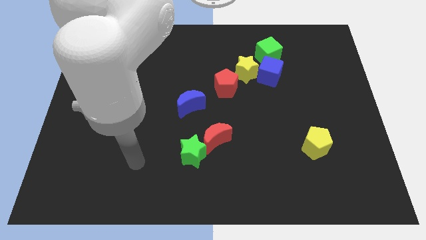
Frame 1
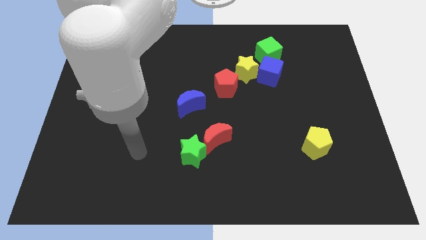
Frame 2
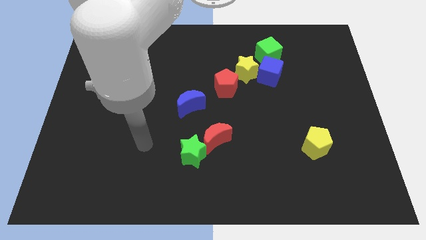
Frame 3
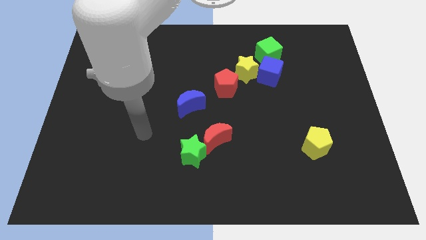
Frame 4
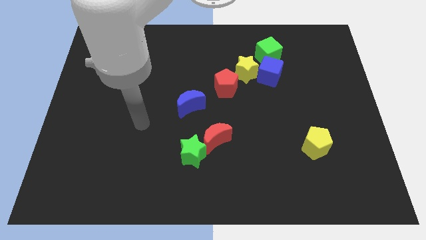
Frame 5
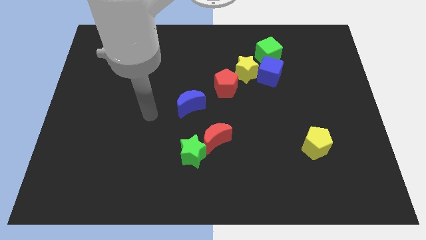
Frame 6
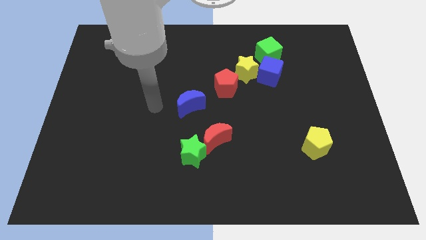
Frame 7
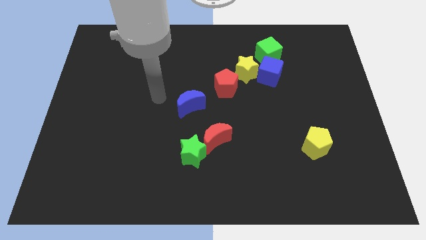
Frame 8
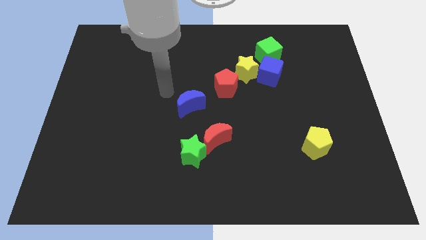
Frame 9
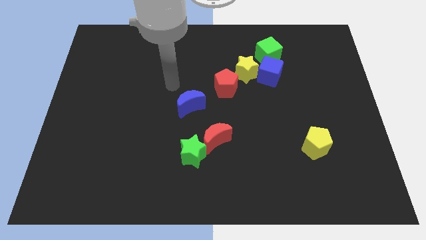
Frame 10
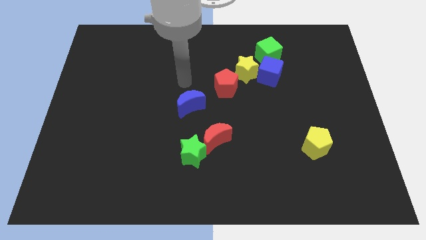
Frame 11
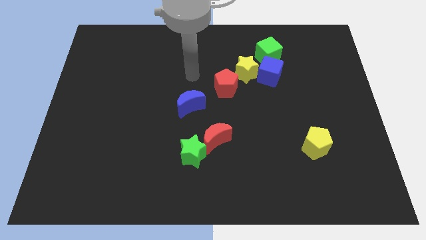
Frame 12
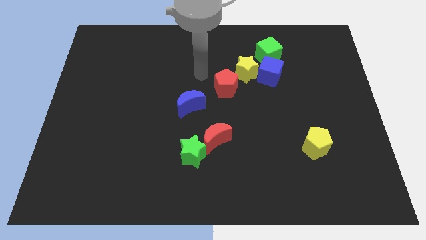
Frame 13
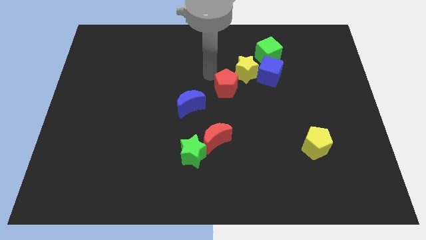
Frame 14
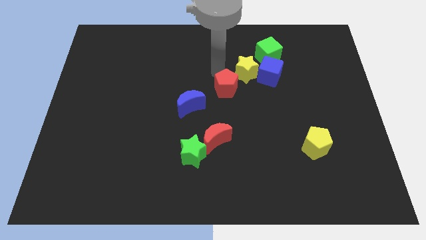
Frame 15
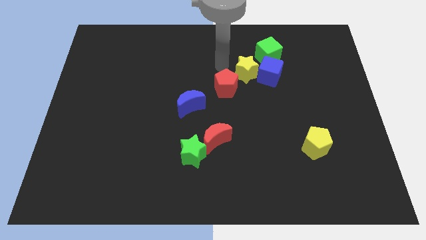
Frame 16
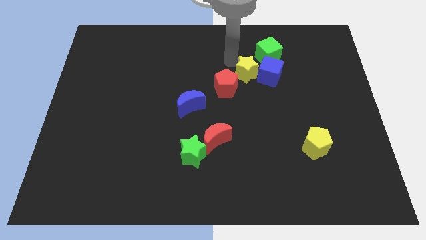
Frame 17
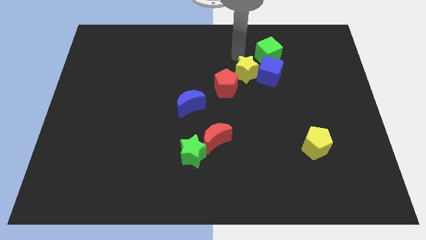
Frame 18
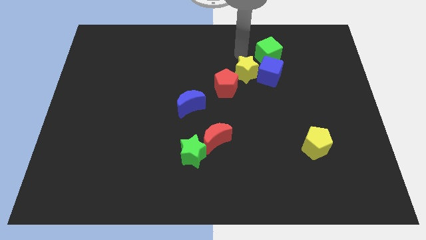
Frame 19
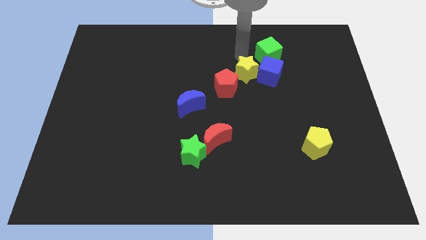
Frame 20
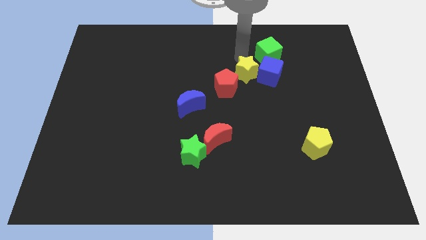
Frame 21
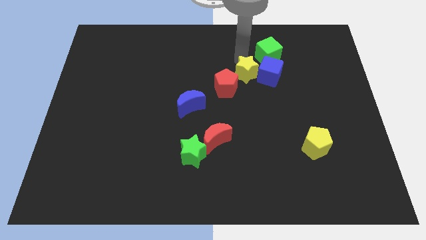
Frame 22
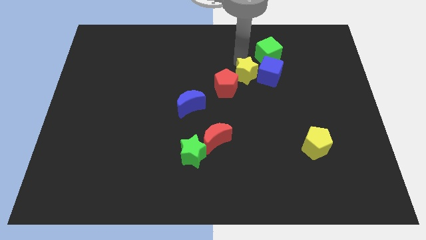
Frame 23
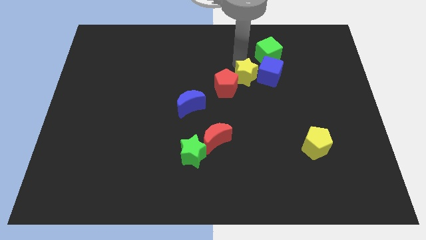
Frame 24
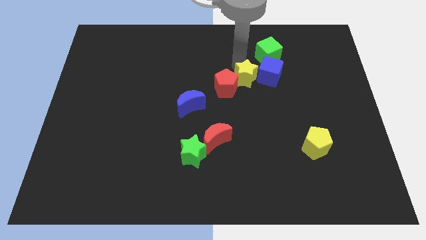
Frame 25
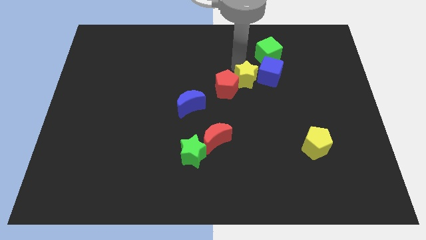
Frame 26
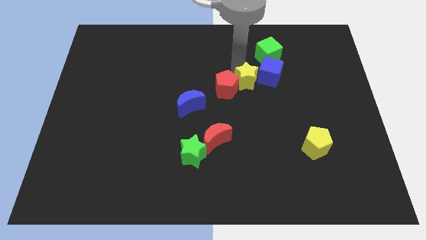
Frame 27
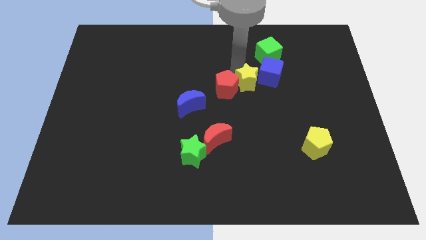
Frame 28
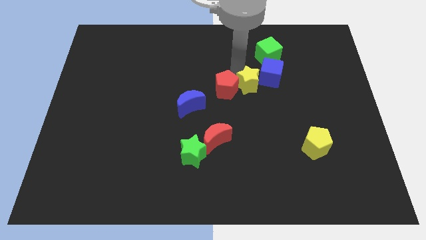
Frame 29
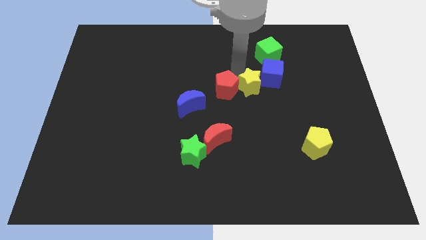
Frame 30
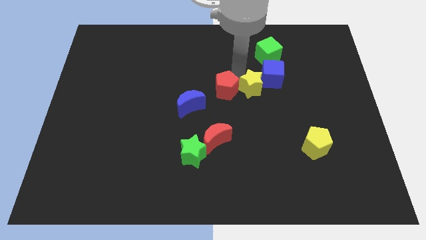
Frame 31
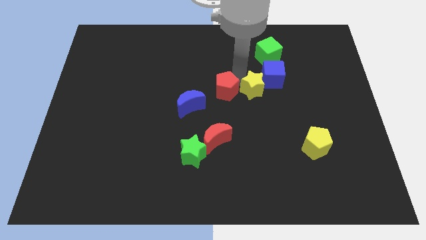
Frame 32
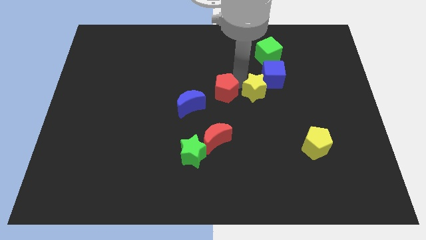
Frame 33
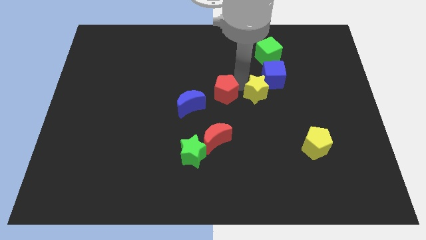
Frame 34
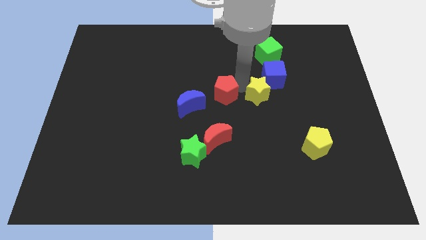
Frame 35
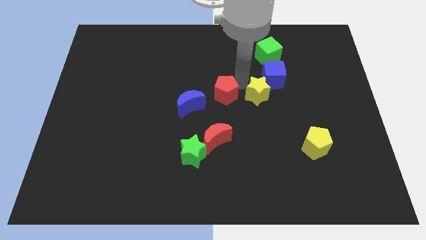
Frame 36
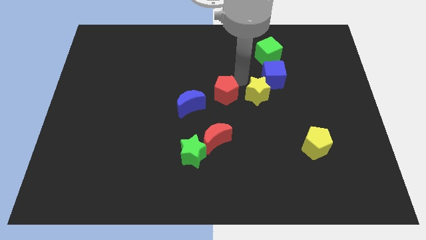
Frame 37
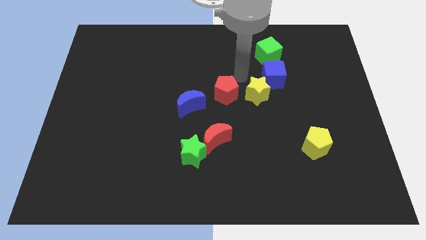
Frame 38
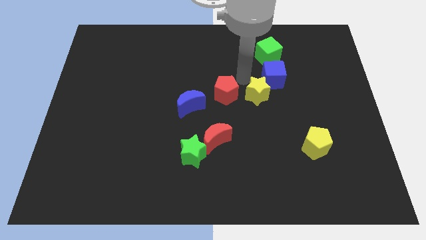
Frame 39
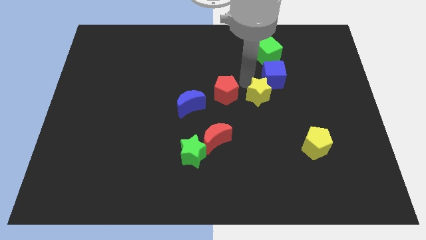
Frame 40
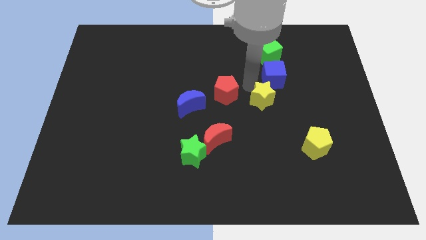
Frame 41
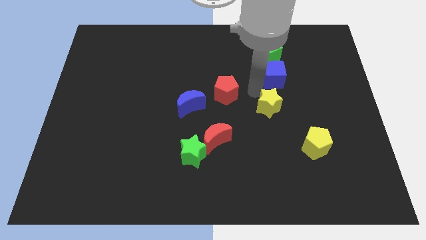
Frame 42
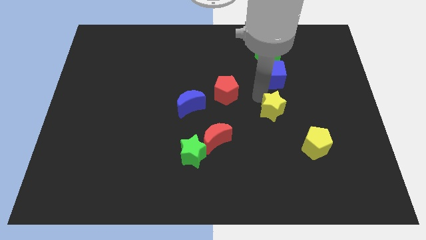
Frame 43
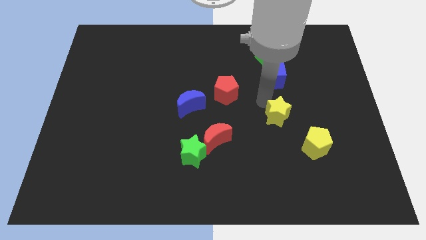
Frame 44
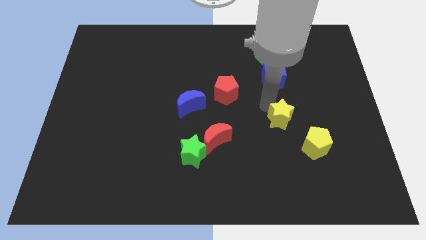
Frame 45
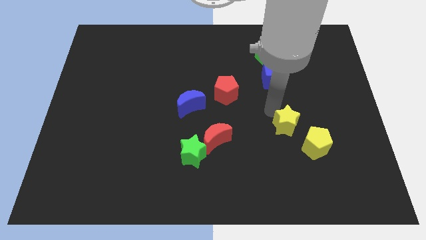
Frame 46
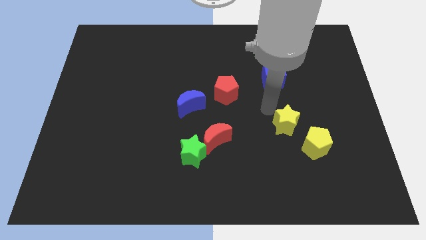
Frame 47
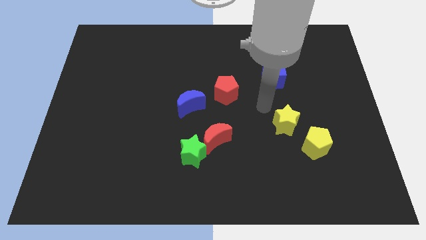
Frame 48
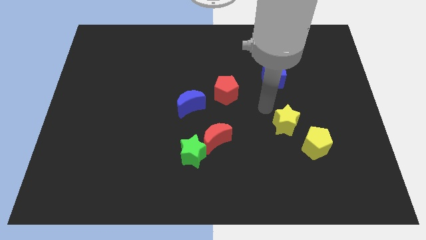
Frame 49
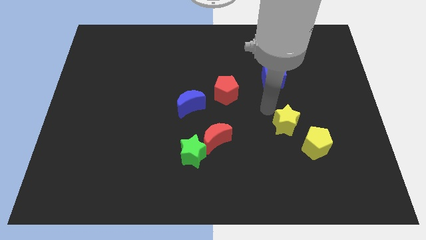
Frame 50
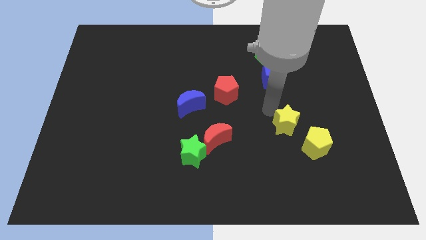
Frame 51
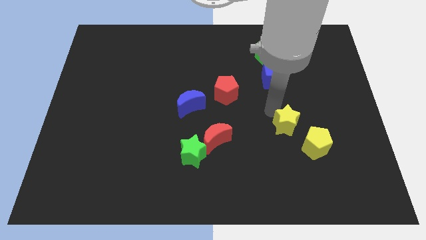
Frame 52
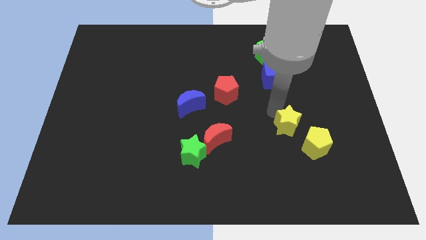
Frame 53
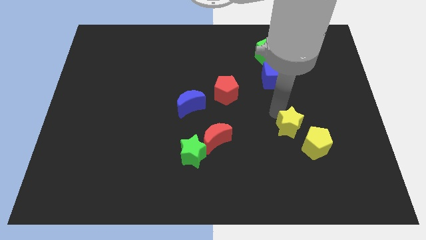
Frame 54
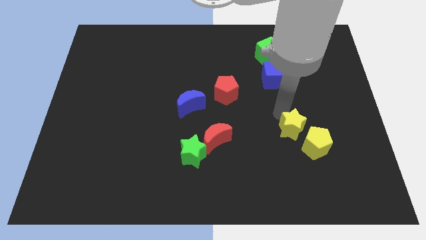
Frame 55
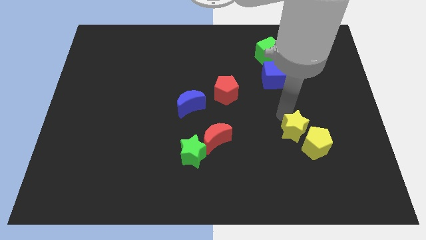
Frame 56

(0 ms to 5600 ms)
slide the yellow star to the yellow pentagon

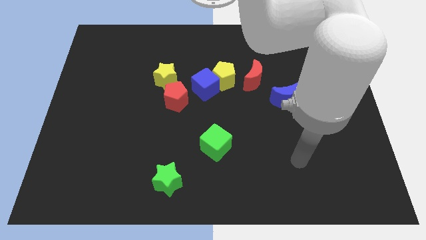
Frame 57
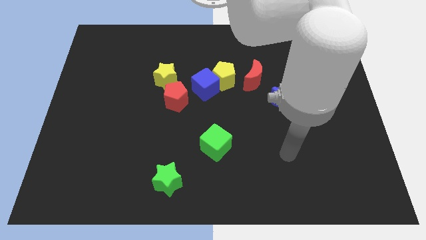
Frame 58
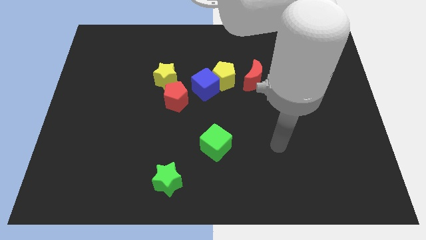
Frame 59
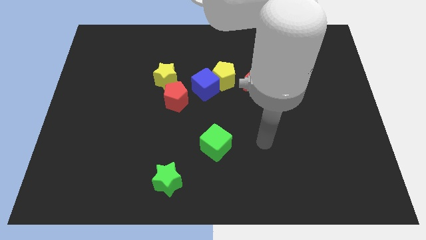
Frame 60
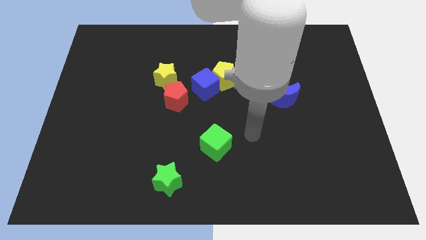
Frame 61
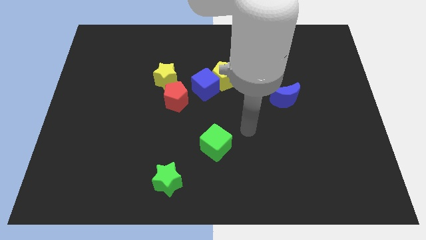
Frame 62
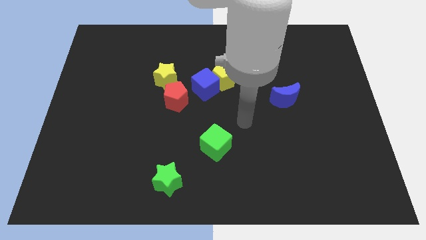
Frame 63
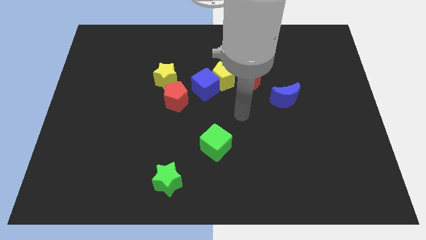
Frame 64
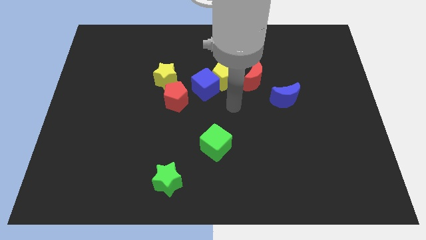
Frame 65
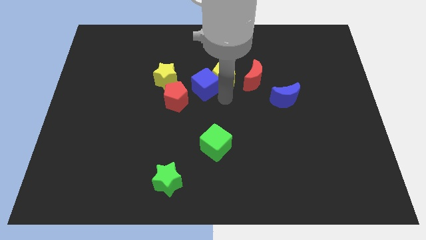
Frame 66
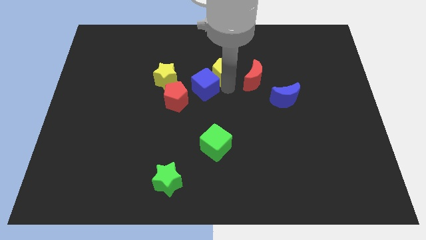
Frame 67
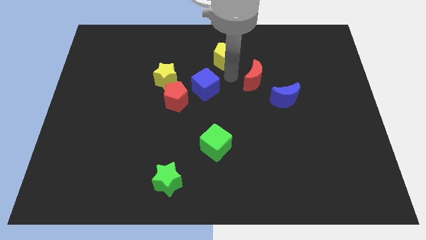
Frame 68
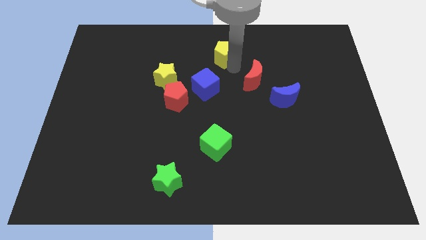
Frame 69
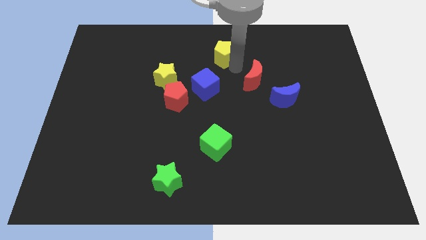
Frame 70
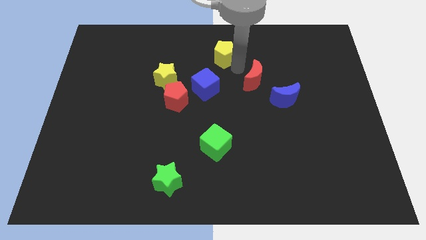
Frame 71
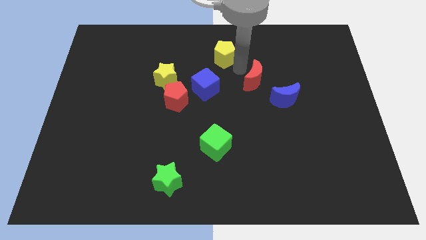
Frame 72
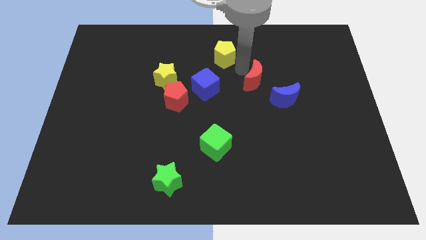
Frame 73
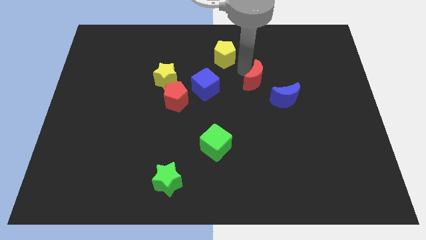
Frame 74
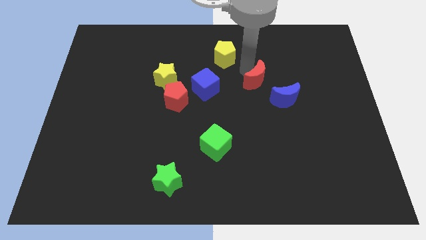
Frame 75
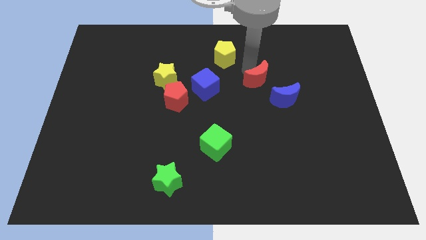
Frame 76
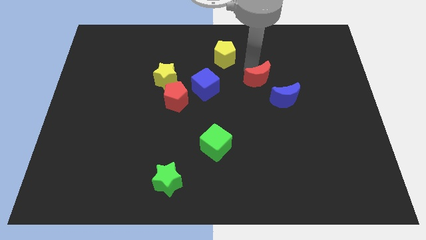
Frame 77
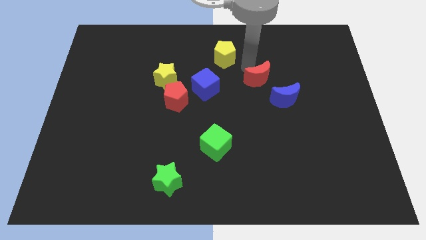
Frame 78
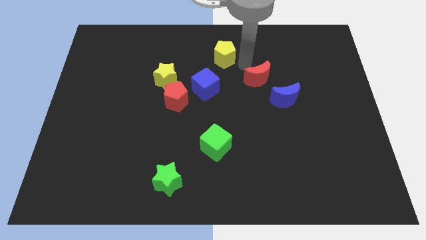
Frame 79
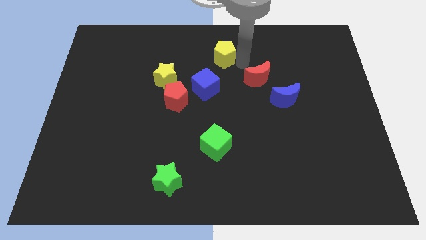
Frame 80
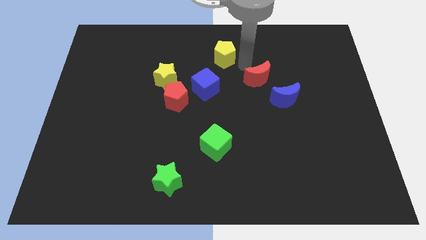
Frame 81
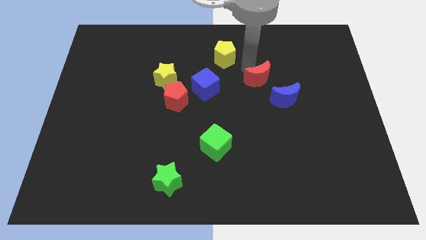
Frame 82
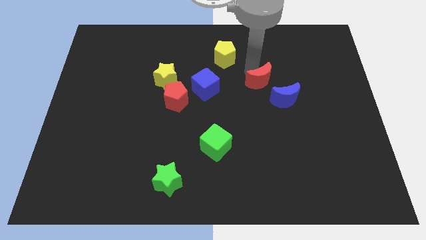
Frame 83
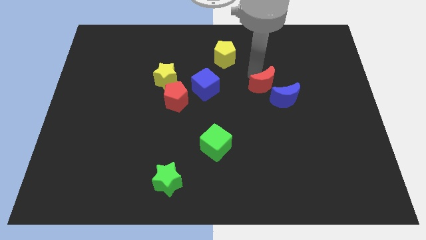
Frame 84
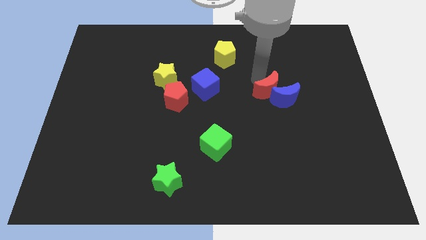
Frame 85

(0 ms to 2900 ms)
push the red moon to the blue moon
